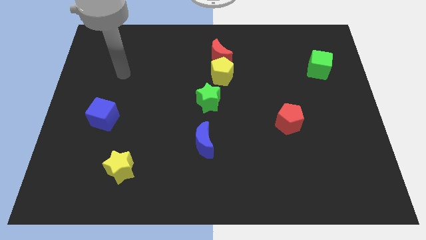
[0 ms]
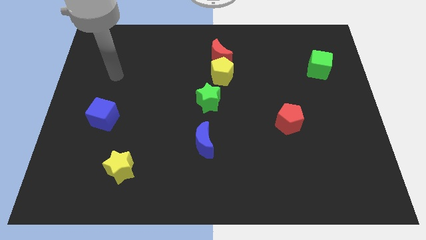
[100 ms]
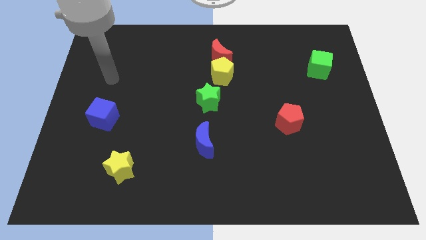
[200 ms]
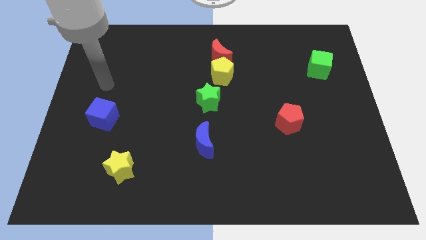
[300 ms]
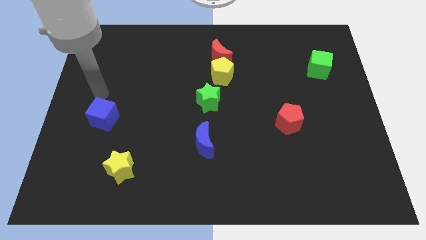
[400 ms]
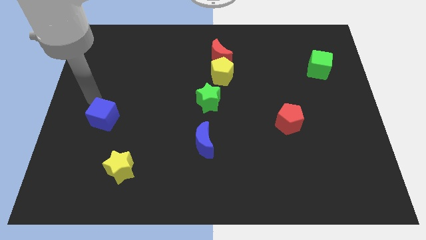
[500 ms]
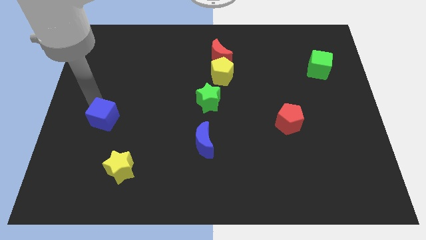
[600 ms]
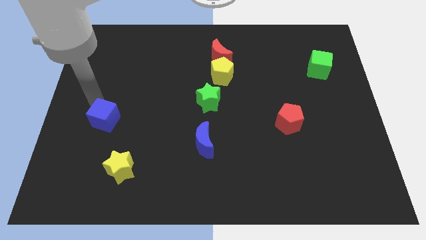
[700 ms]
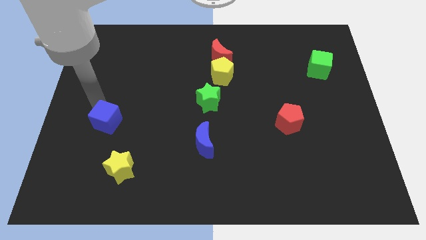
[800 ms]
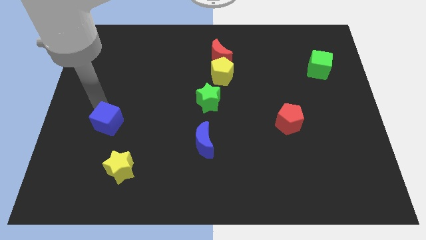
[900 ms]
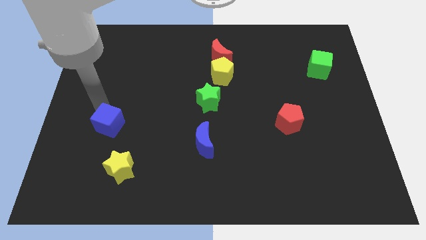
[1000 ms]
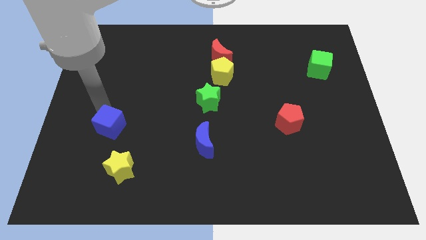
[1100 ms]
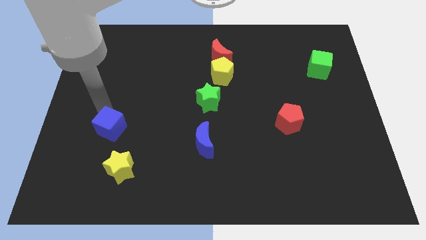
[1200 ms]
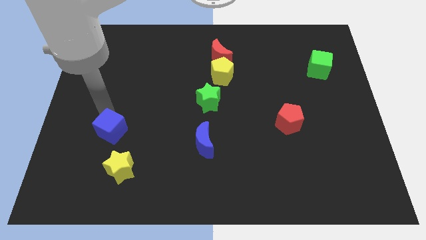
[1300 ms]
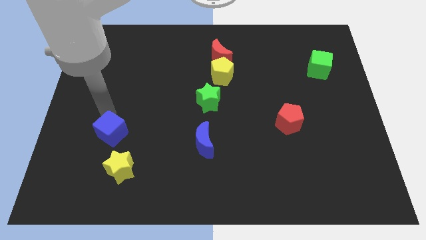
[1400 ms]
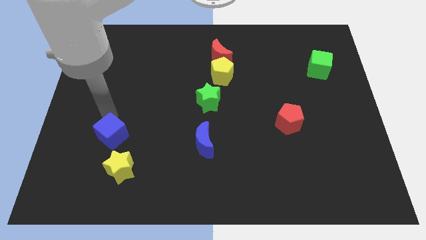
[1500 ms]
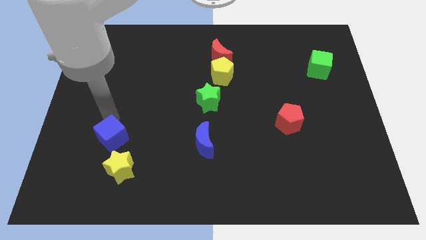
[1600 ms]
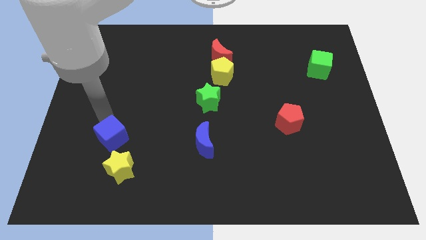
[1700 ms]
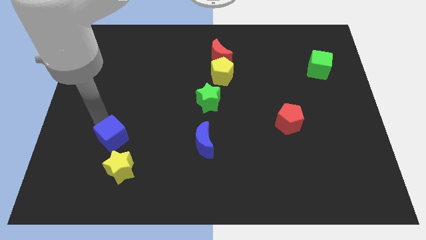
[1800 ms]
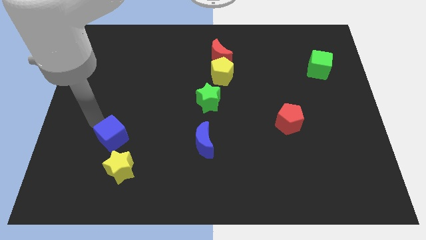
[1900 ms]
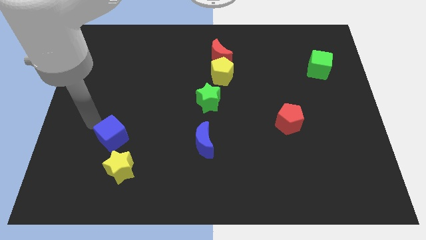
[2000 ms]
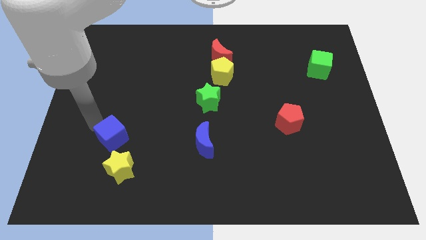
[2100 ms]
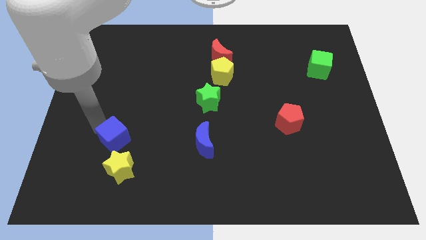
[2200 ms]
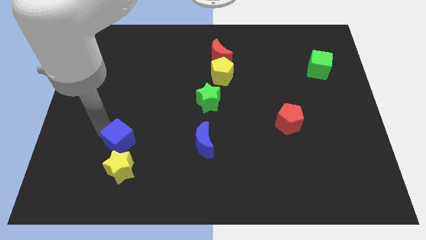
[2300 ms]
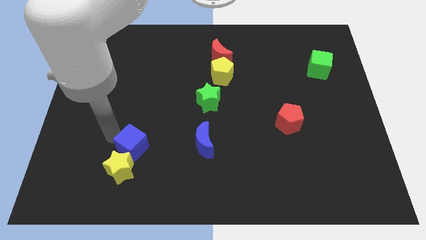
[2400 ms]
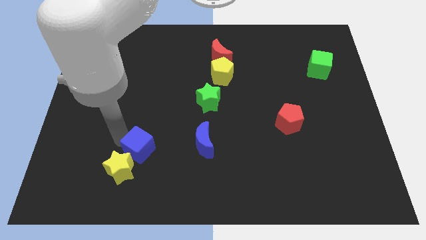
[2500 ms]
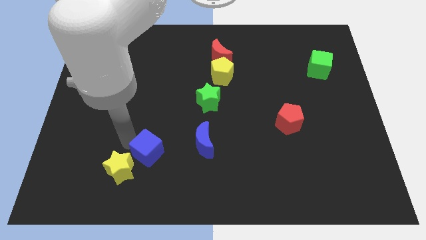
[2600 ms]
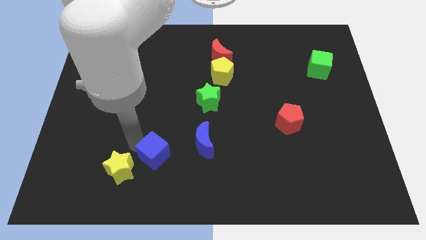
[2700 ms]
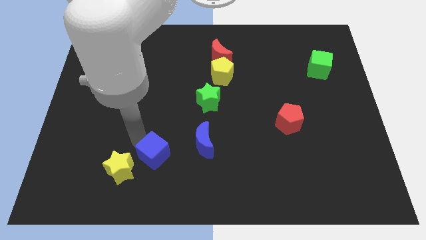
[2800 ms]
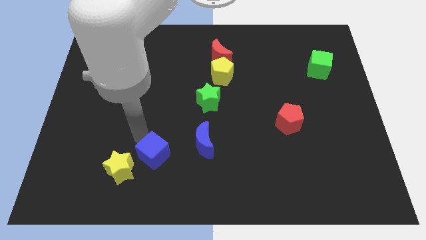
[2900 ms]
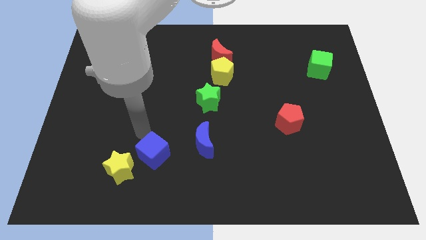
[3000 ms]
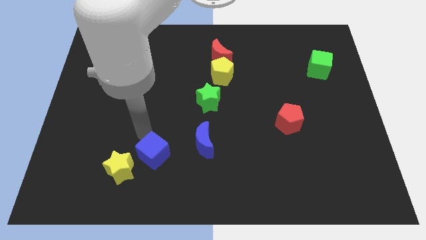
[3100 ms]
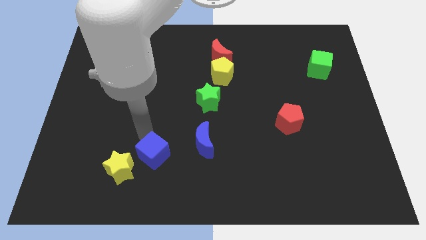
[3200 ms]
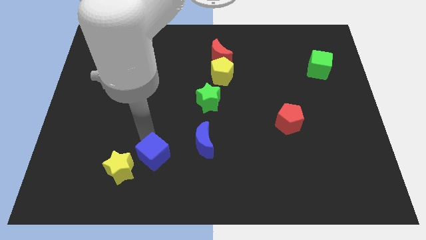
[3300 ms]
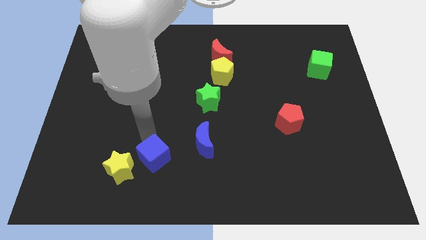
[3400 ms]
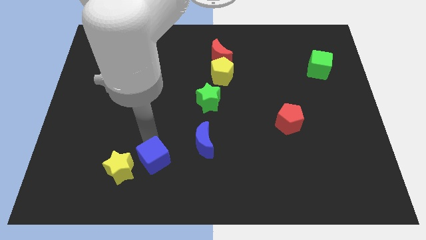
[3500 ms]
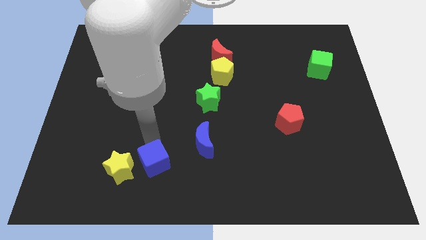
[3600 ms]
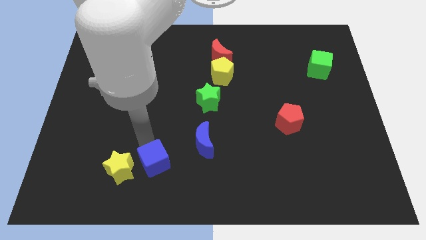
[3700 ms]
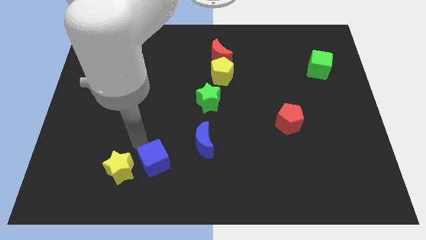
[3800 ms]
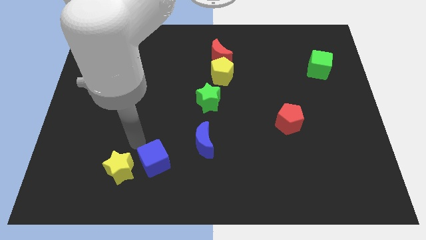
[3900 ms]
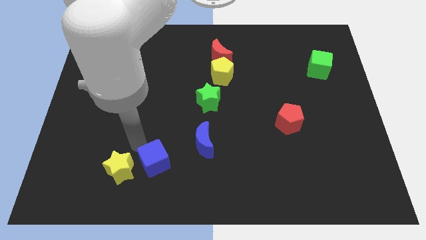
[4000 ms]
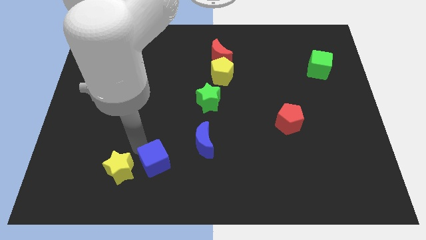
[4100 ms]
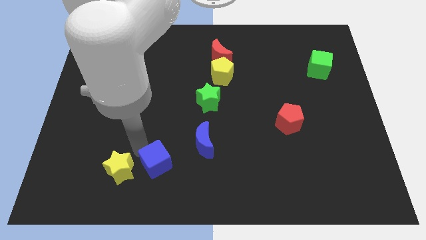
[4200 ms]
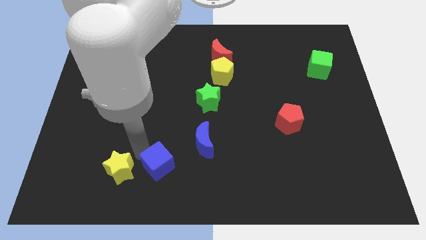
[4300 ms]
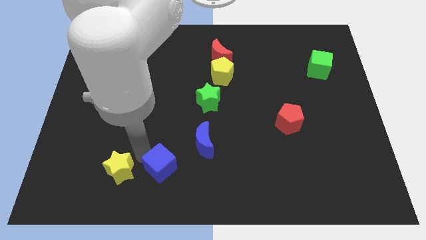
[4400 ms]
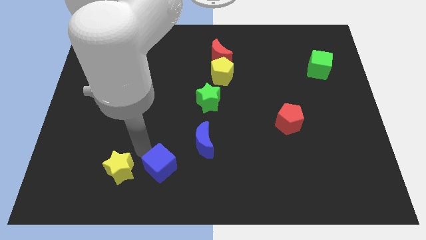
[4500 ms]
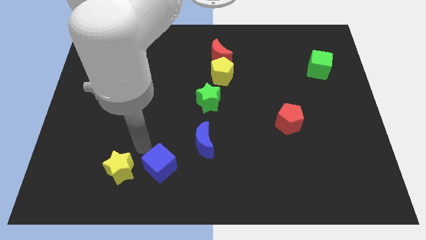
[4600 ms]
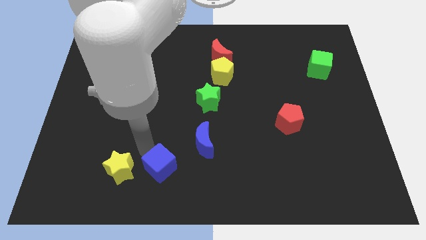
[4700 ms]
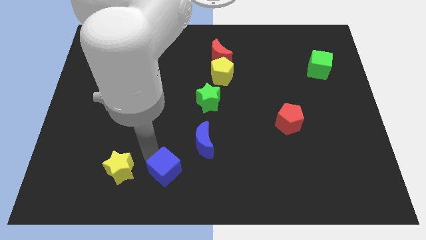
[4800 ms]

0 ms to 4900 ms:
push the blue cube to the bottom

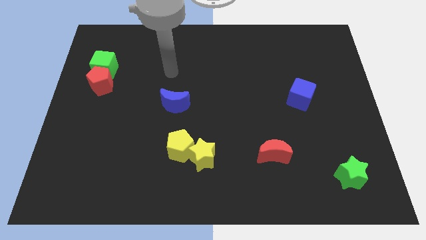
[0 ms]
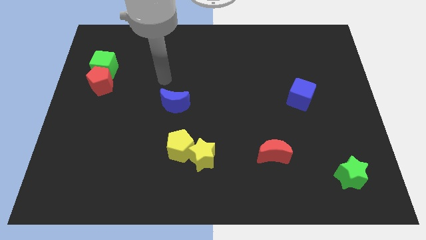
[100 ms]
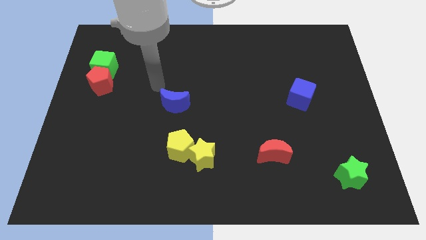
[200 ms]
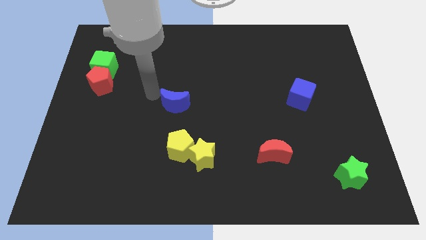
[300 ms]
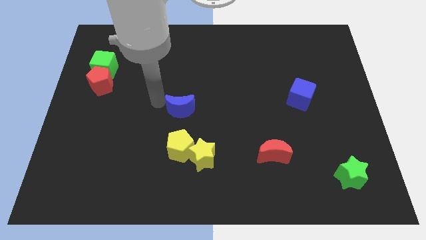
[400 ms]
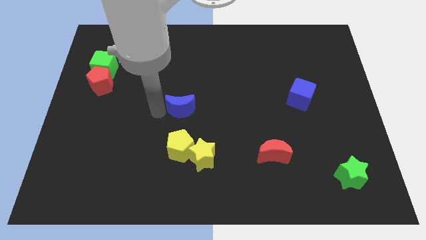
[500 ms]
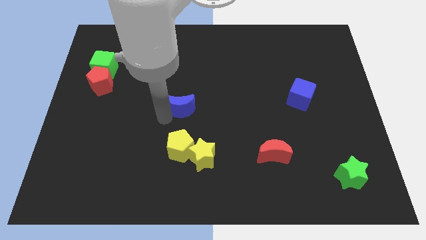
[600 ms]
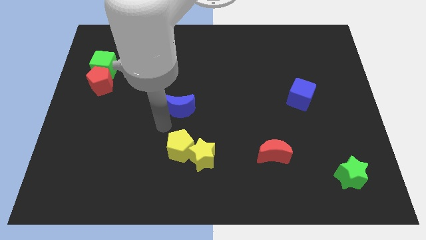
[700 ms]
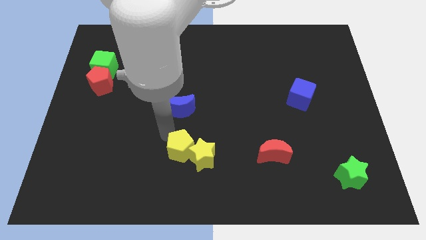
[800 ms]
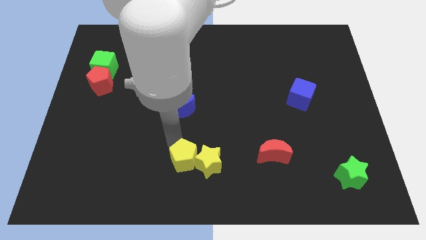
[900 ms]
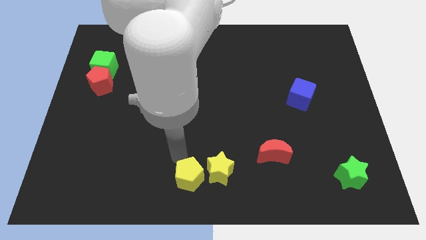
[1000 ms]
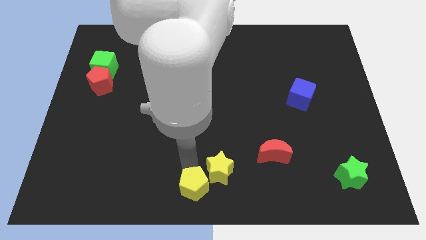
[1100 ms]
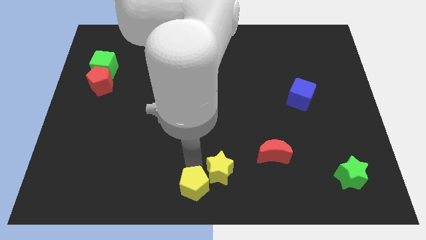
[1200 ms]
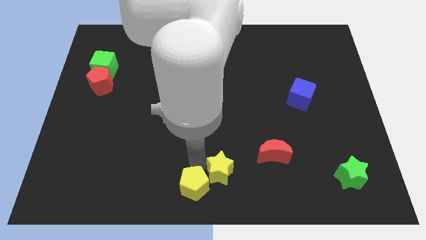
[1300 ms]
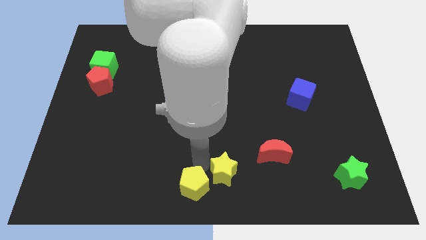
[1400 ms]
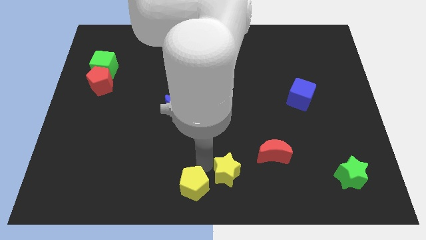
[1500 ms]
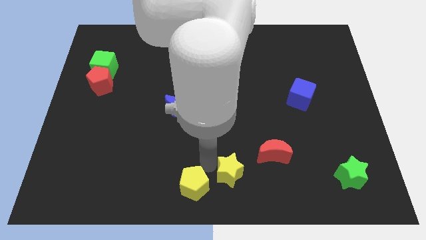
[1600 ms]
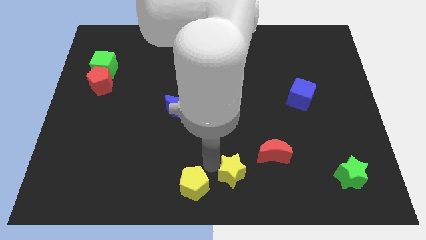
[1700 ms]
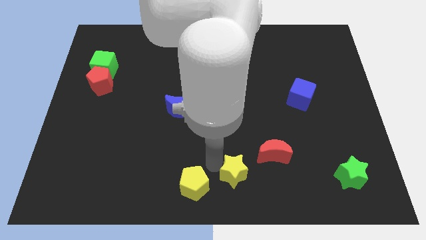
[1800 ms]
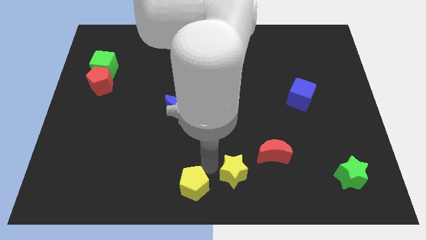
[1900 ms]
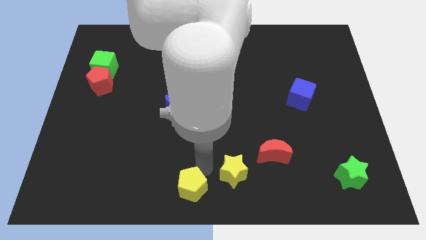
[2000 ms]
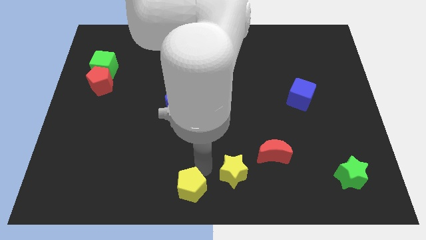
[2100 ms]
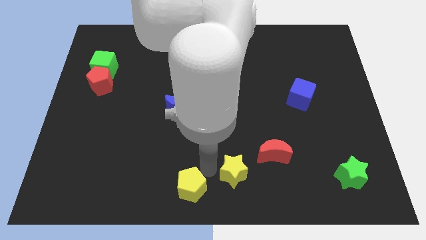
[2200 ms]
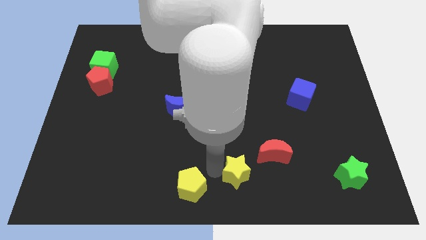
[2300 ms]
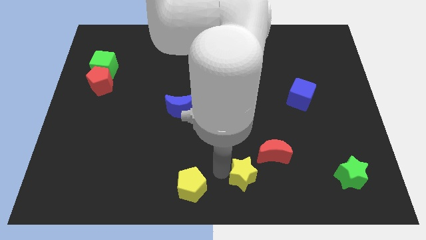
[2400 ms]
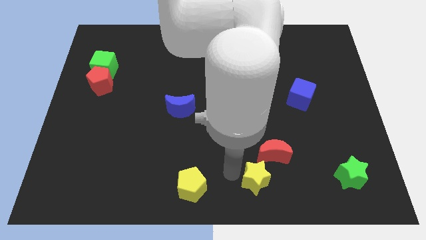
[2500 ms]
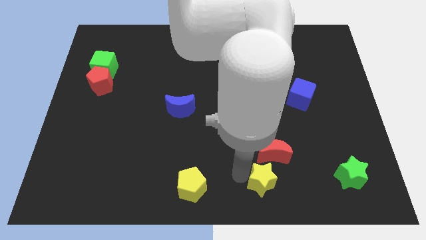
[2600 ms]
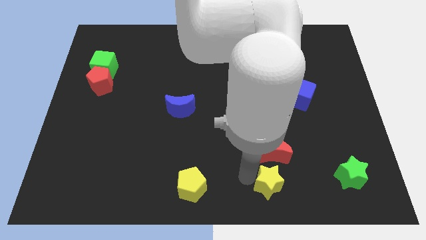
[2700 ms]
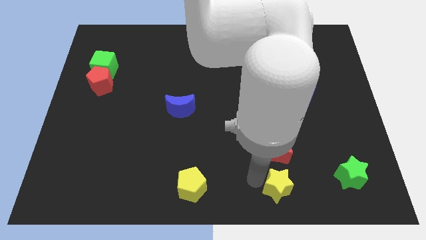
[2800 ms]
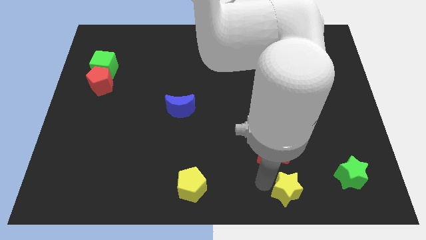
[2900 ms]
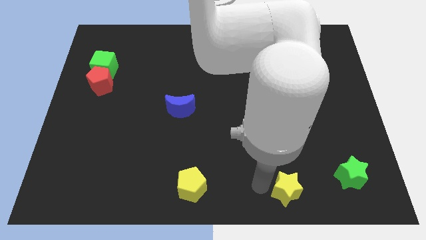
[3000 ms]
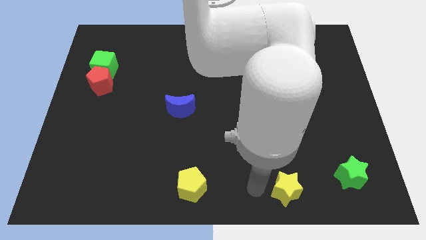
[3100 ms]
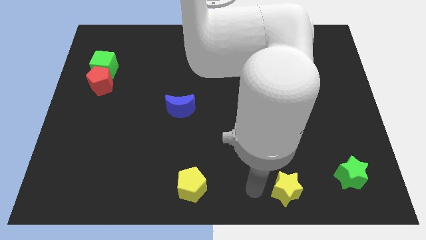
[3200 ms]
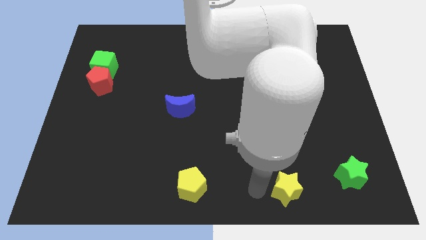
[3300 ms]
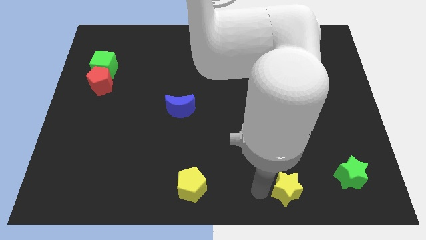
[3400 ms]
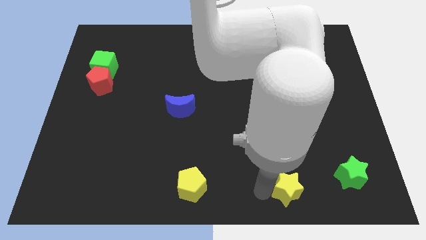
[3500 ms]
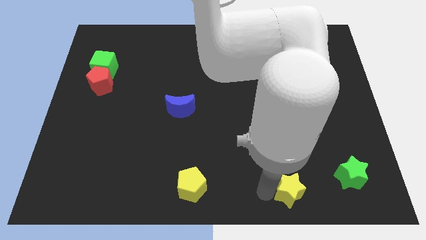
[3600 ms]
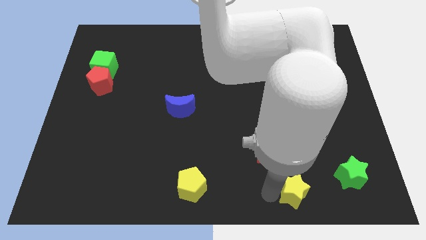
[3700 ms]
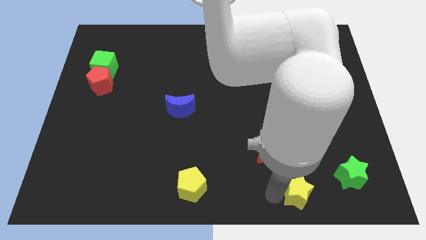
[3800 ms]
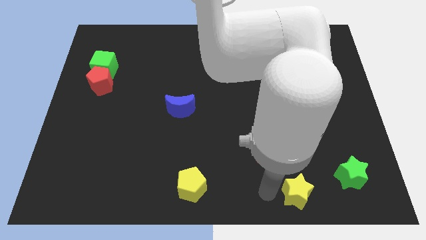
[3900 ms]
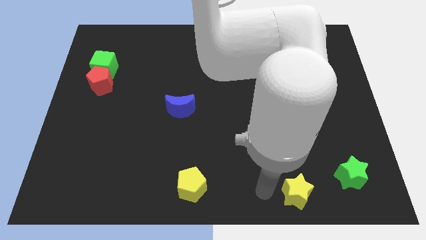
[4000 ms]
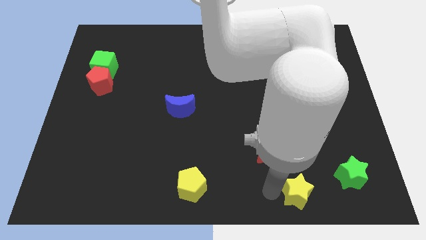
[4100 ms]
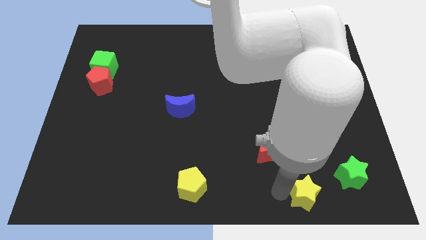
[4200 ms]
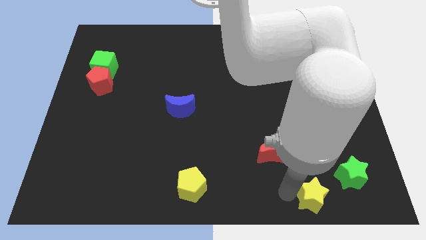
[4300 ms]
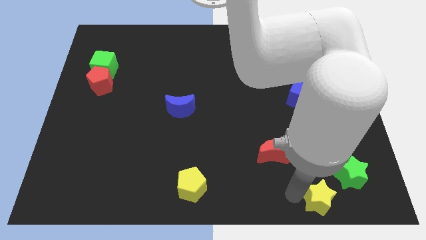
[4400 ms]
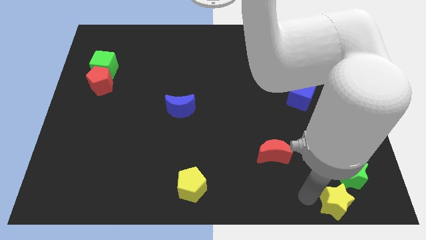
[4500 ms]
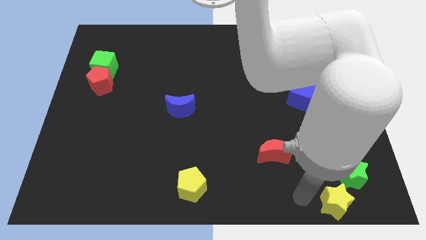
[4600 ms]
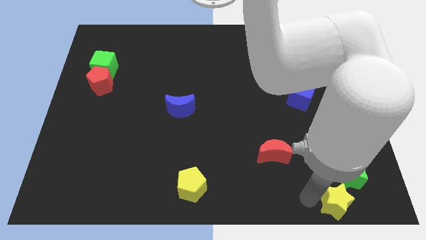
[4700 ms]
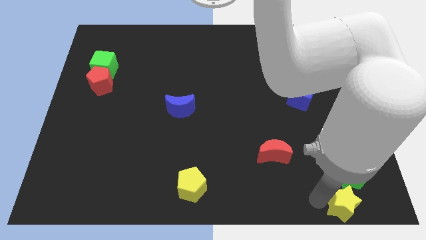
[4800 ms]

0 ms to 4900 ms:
push the yellow star to the bottom right of the board
